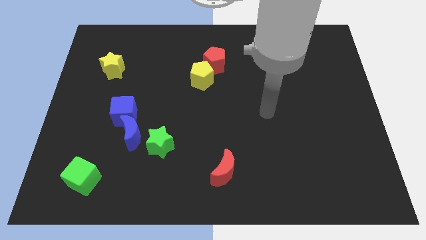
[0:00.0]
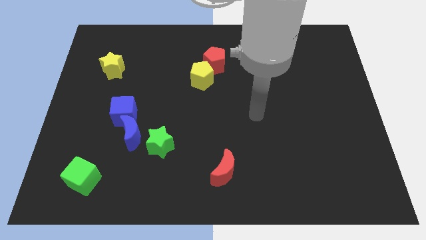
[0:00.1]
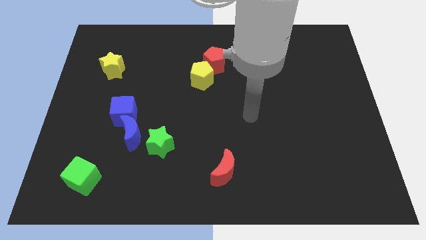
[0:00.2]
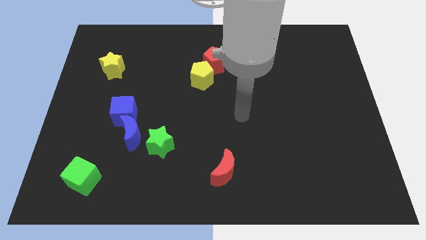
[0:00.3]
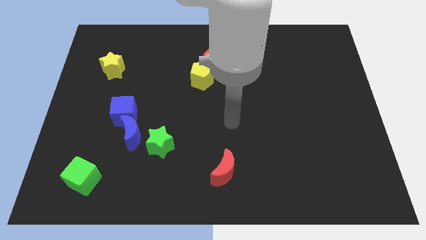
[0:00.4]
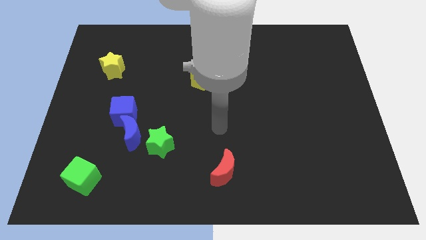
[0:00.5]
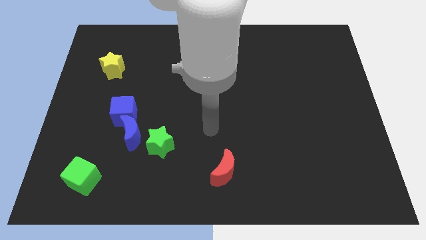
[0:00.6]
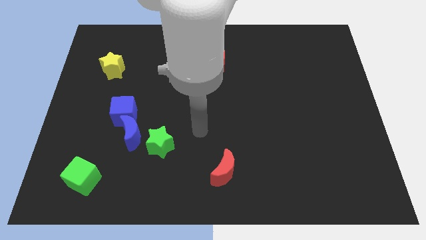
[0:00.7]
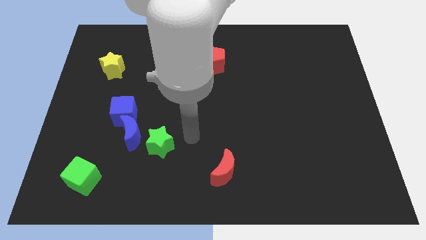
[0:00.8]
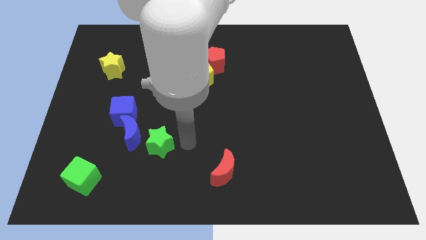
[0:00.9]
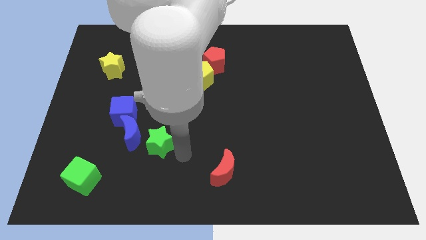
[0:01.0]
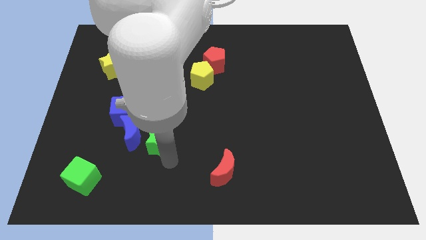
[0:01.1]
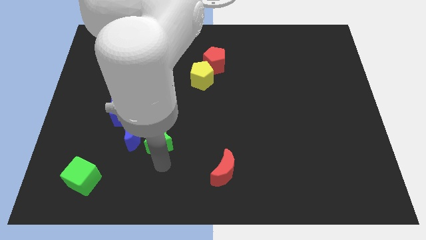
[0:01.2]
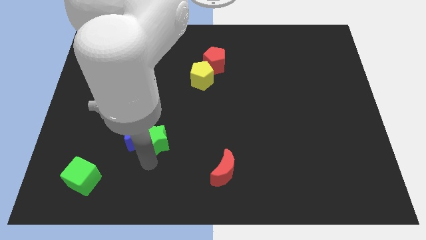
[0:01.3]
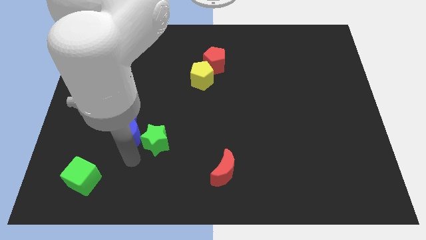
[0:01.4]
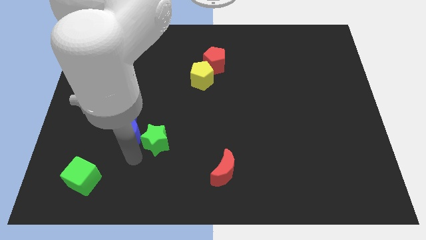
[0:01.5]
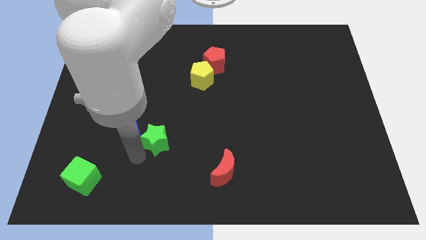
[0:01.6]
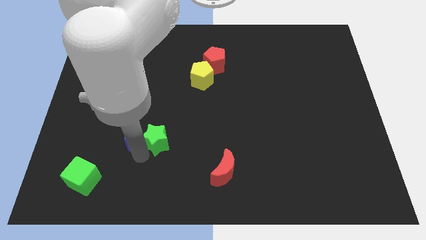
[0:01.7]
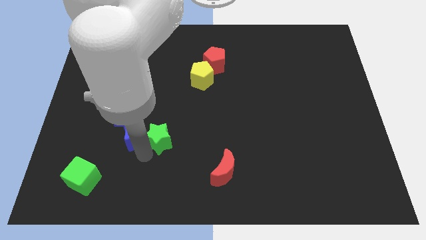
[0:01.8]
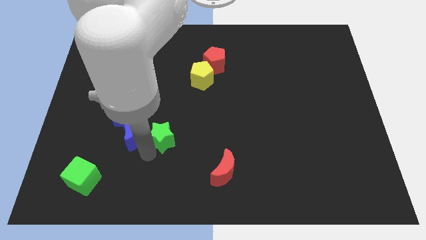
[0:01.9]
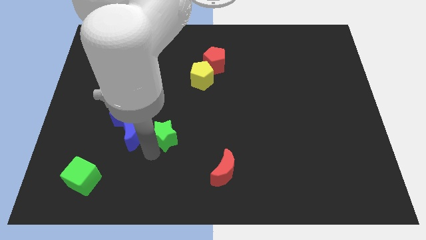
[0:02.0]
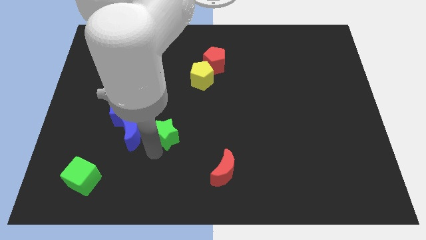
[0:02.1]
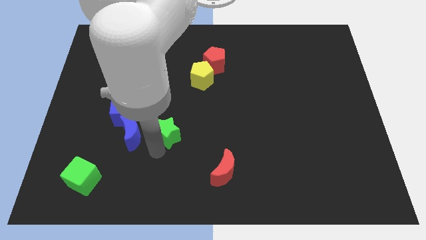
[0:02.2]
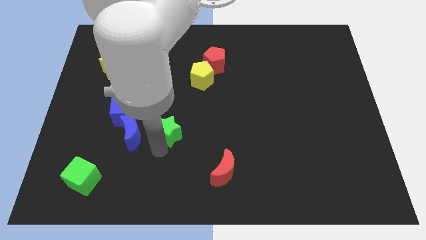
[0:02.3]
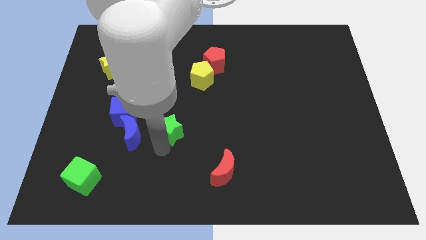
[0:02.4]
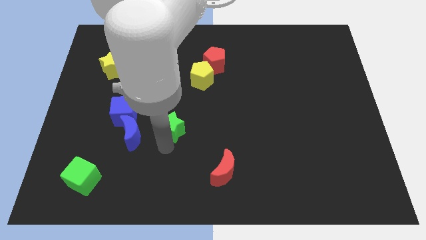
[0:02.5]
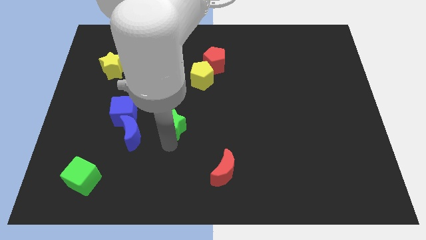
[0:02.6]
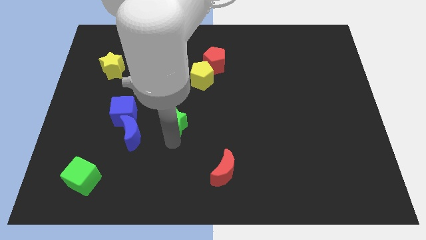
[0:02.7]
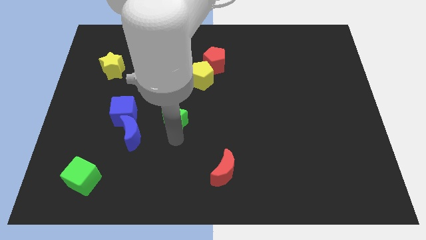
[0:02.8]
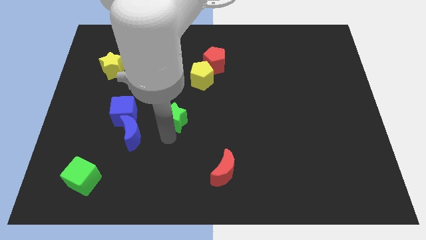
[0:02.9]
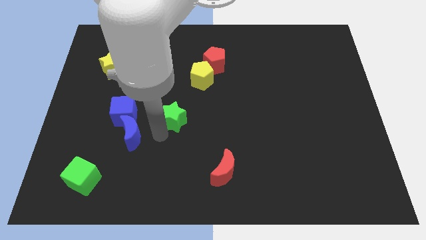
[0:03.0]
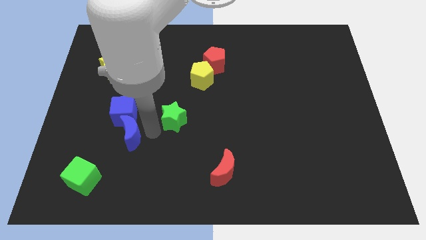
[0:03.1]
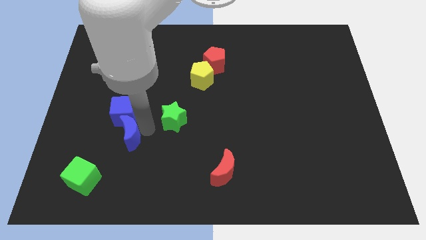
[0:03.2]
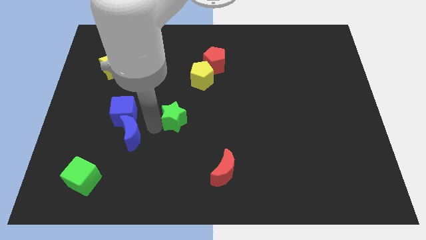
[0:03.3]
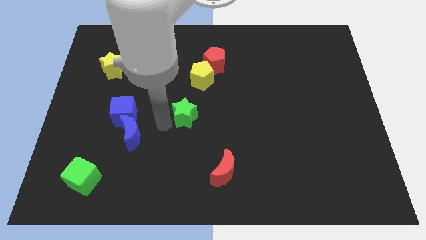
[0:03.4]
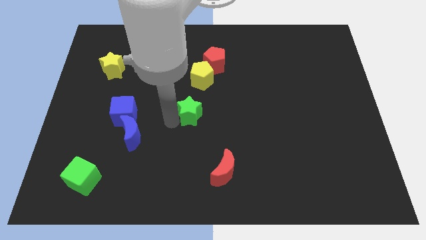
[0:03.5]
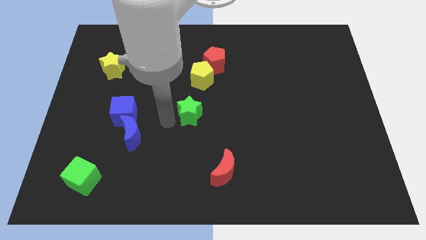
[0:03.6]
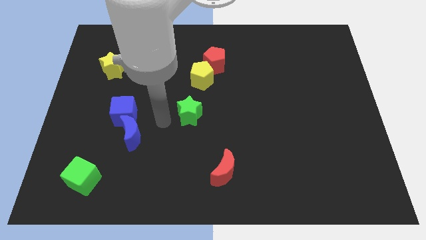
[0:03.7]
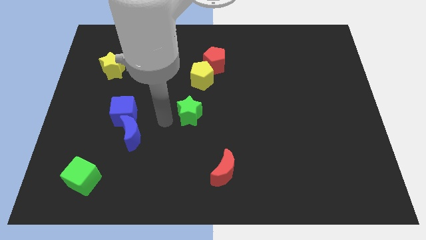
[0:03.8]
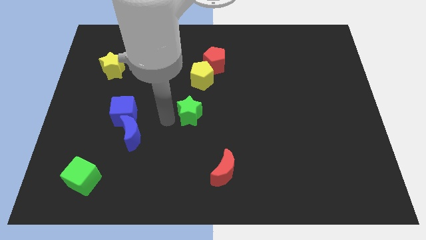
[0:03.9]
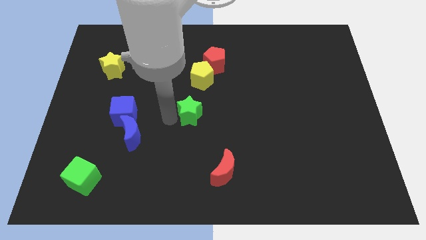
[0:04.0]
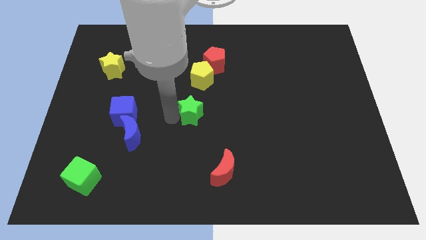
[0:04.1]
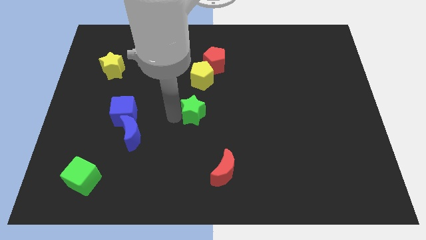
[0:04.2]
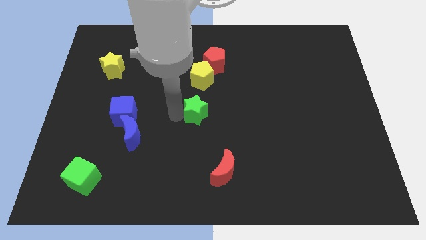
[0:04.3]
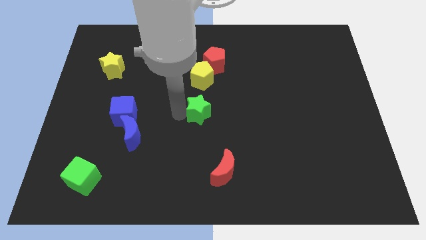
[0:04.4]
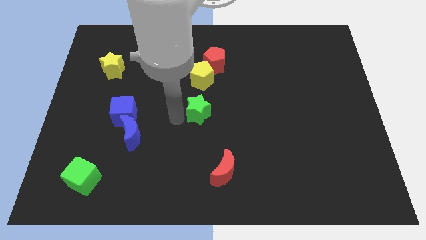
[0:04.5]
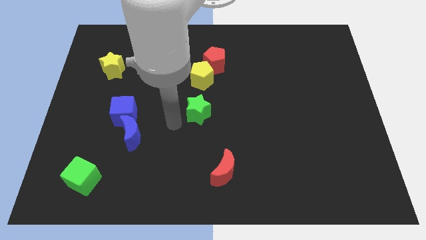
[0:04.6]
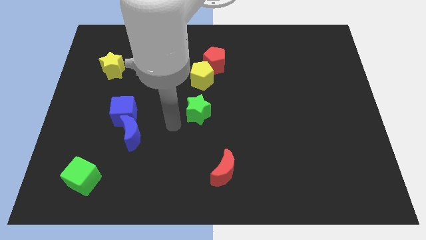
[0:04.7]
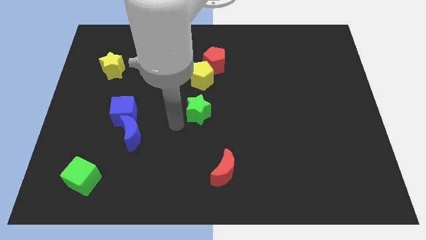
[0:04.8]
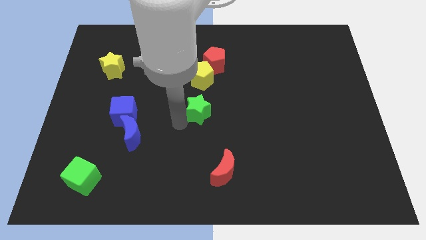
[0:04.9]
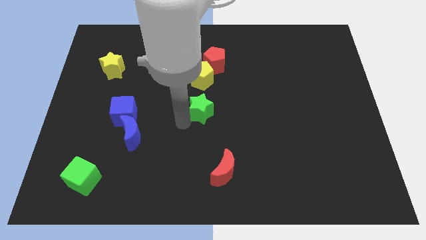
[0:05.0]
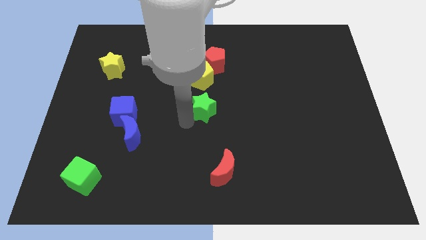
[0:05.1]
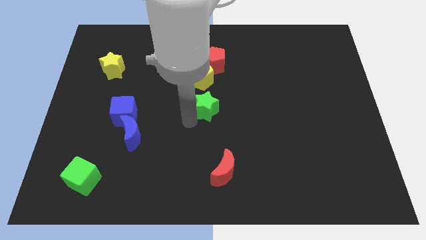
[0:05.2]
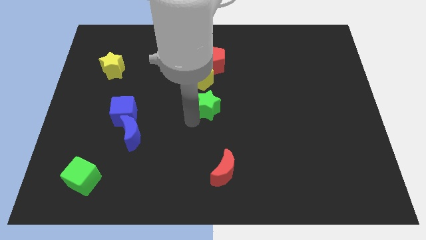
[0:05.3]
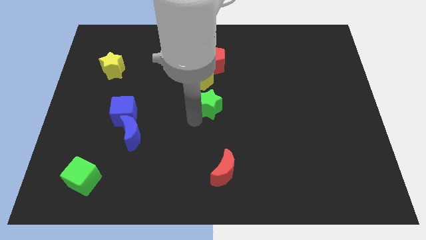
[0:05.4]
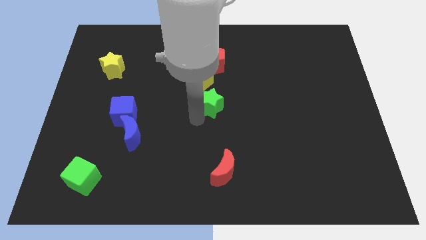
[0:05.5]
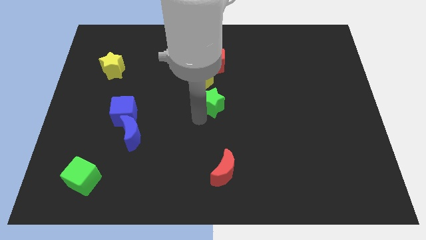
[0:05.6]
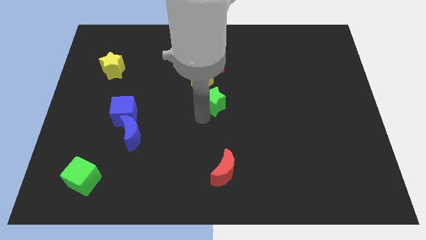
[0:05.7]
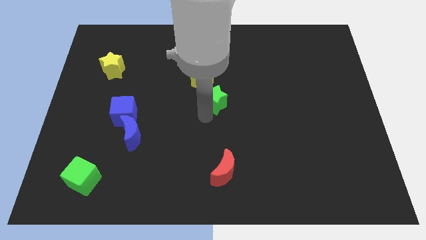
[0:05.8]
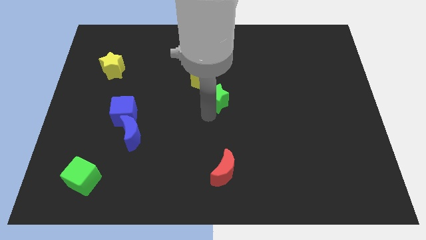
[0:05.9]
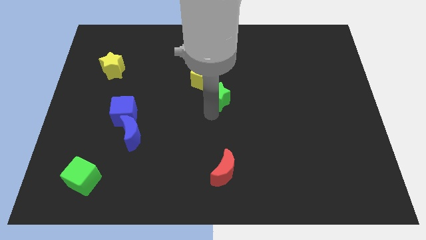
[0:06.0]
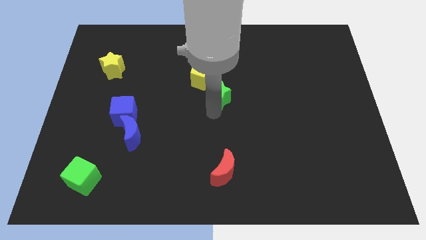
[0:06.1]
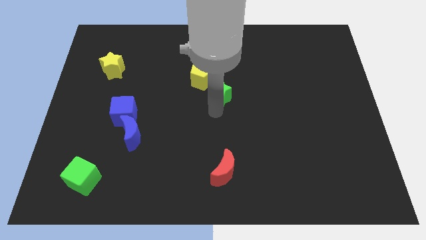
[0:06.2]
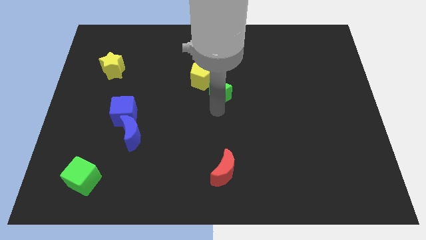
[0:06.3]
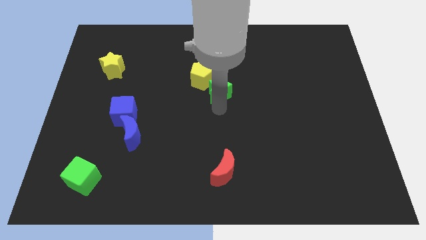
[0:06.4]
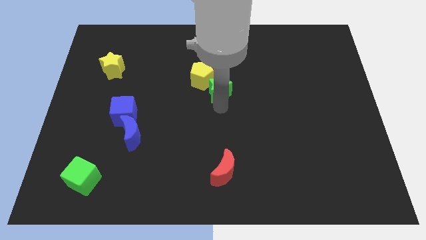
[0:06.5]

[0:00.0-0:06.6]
move the green star diagonally up and to the right

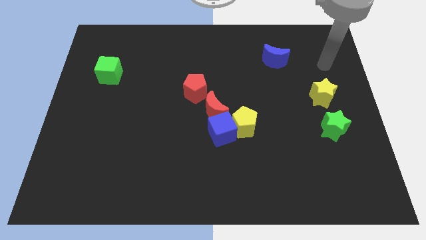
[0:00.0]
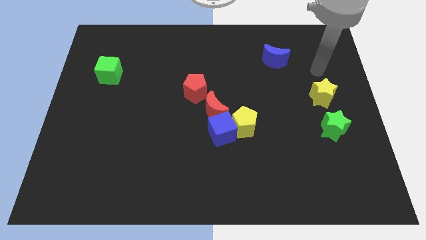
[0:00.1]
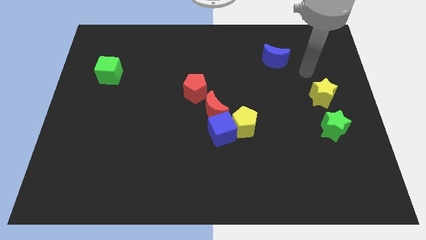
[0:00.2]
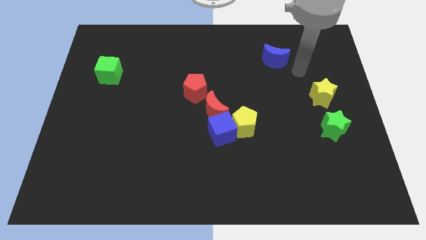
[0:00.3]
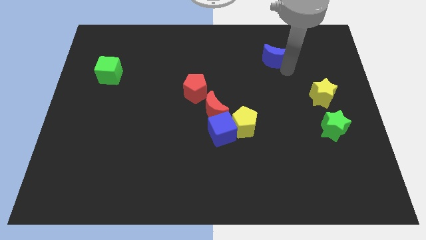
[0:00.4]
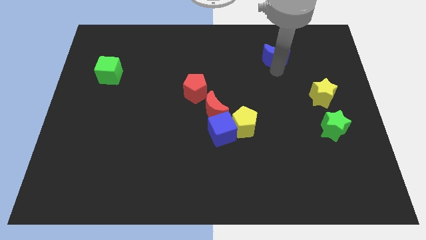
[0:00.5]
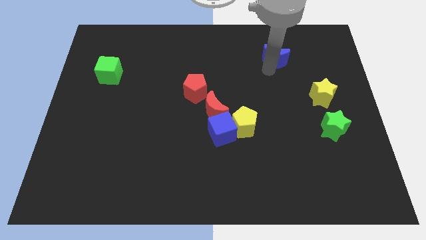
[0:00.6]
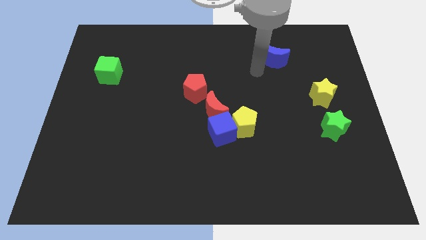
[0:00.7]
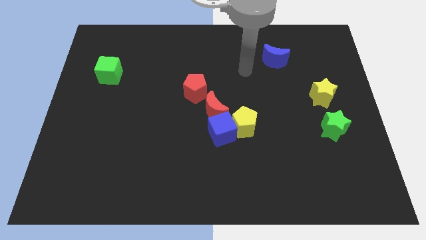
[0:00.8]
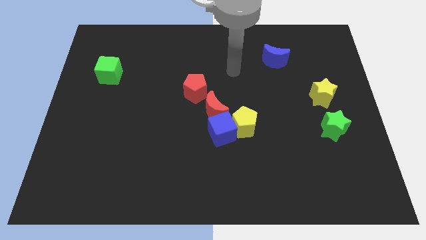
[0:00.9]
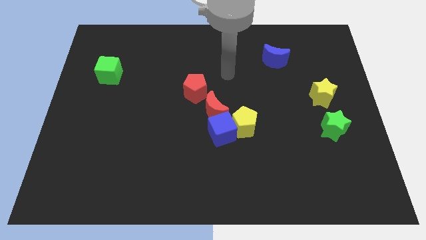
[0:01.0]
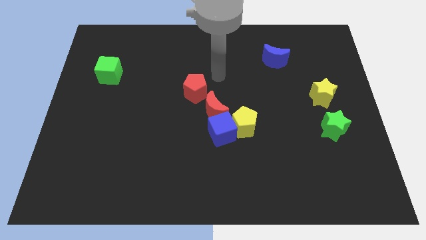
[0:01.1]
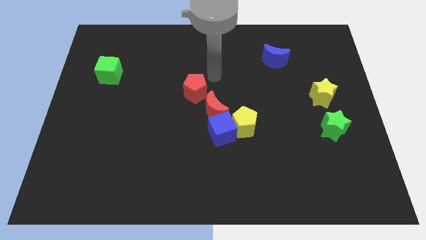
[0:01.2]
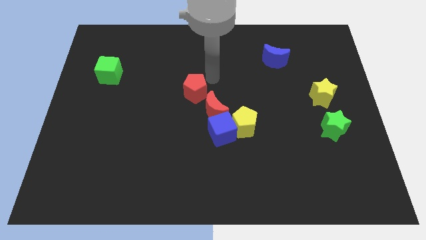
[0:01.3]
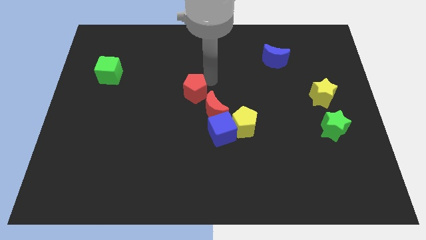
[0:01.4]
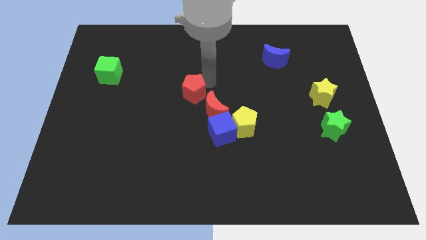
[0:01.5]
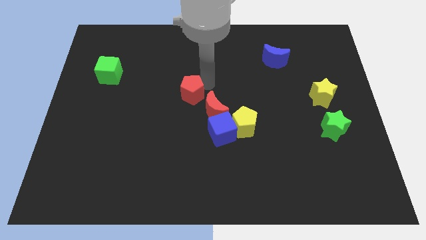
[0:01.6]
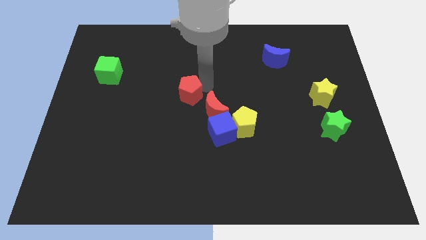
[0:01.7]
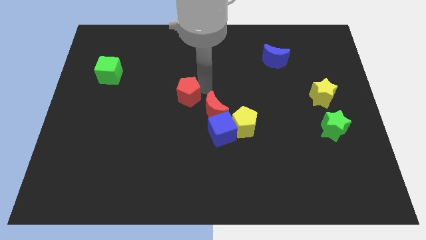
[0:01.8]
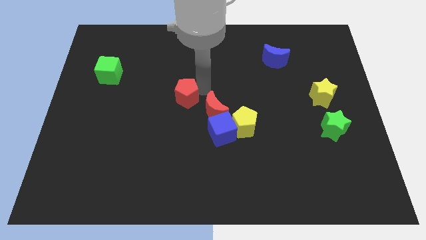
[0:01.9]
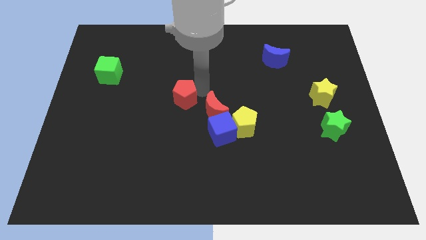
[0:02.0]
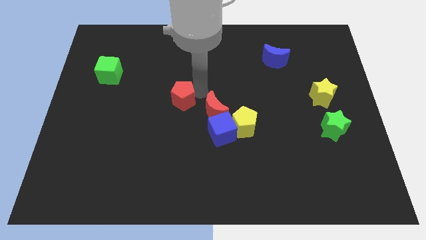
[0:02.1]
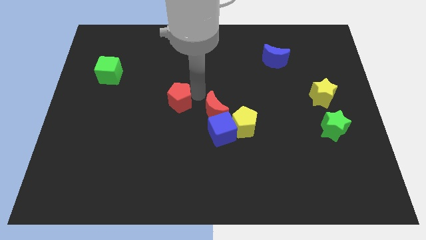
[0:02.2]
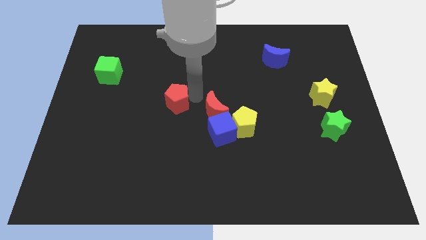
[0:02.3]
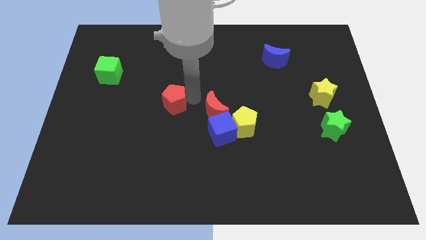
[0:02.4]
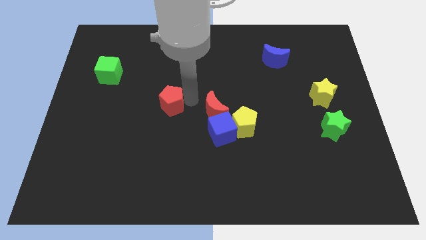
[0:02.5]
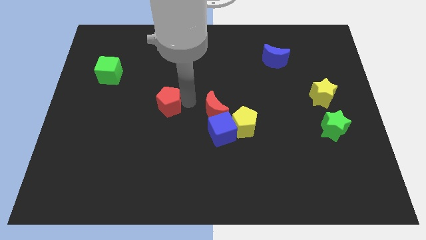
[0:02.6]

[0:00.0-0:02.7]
slightly move the red pentagon downwards and then to the left
